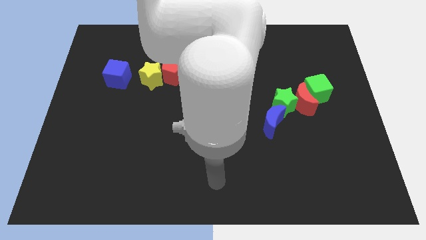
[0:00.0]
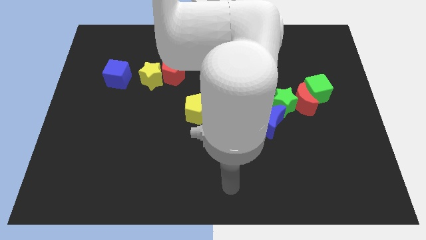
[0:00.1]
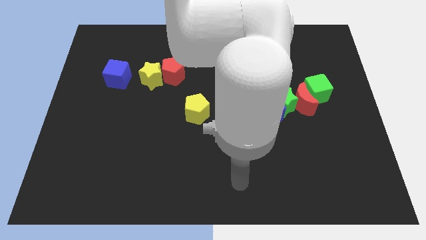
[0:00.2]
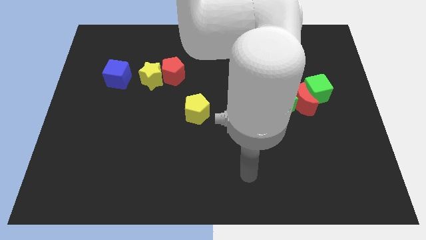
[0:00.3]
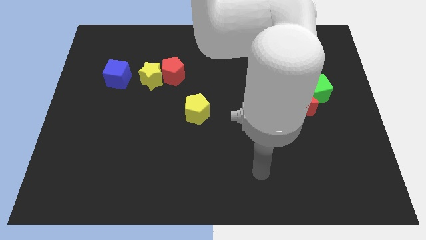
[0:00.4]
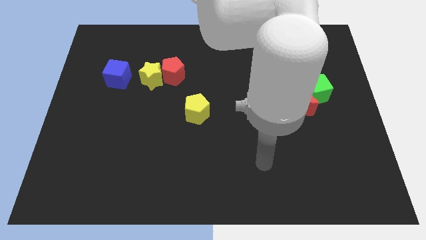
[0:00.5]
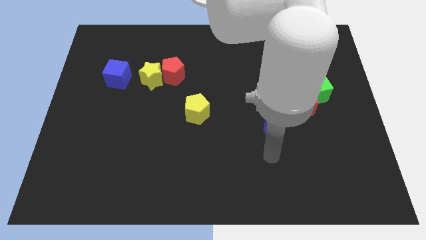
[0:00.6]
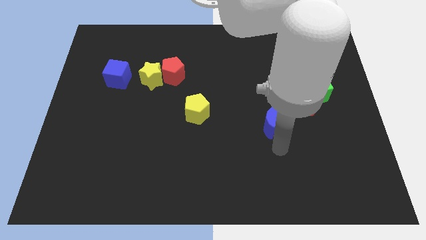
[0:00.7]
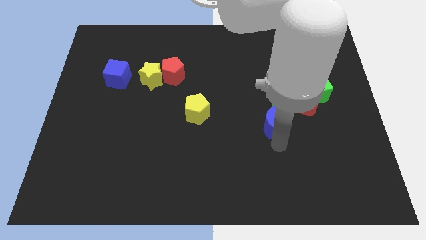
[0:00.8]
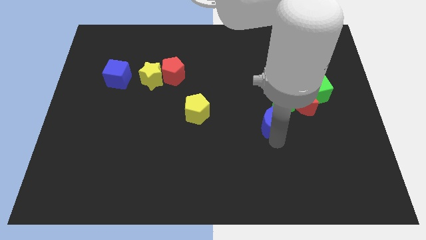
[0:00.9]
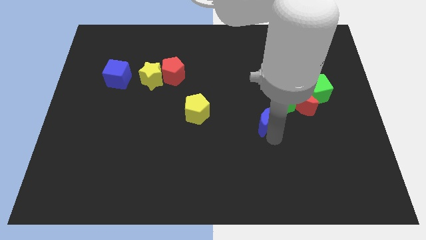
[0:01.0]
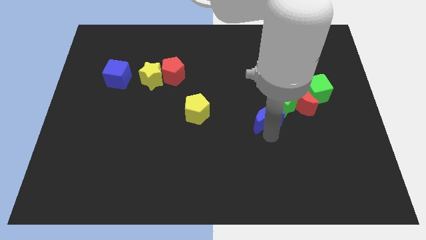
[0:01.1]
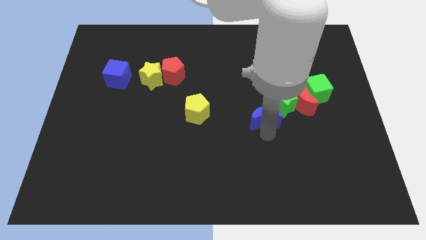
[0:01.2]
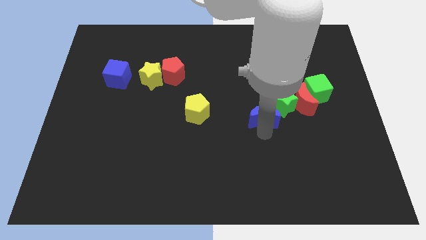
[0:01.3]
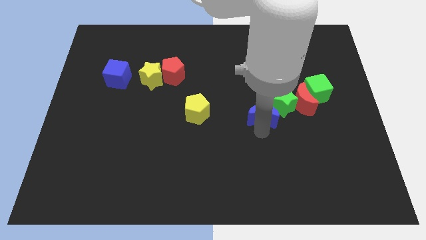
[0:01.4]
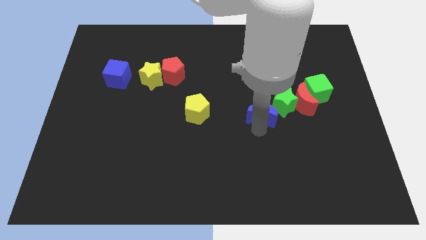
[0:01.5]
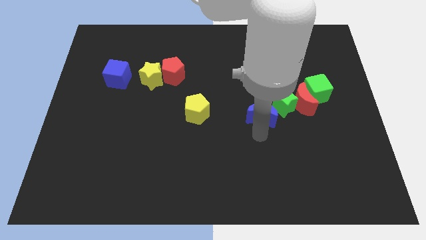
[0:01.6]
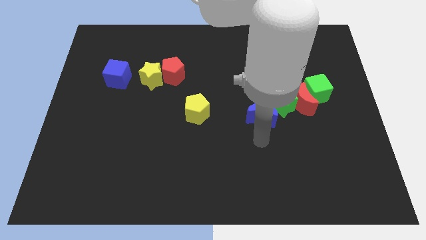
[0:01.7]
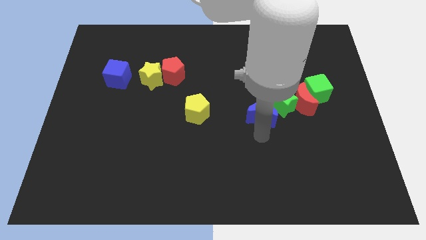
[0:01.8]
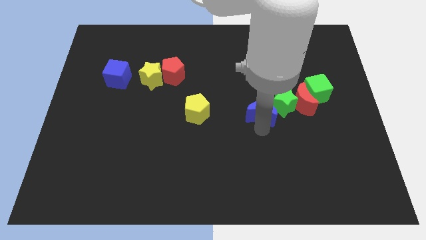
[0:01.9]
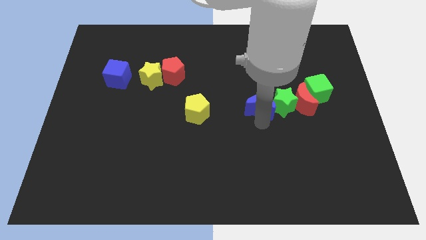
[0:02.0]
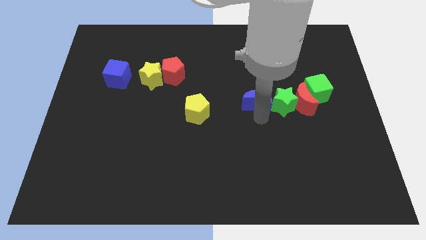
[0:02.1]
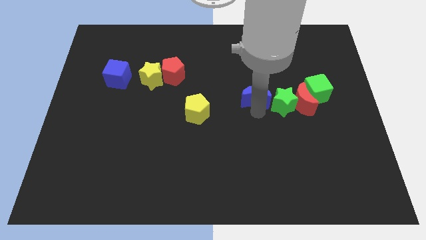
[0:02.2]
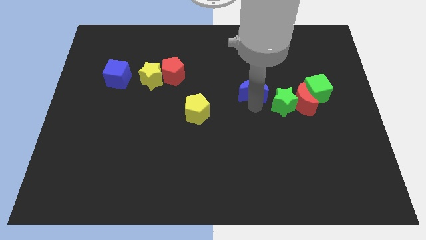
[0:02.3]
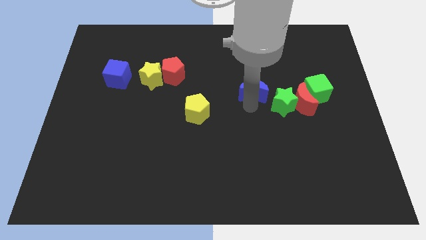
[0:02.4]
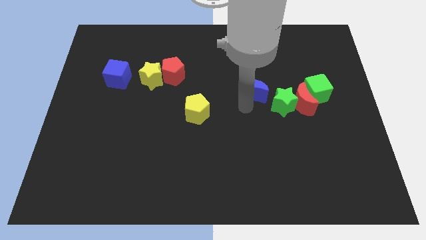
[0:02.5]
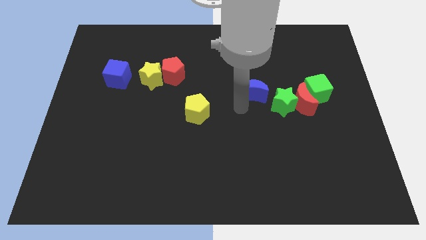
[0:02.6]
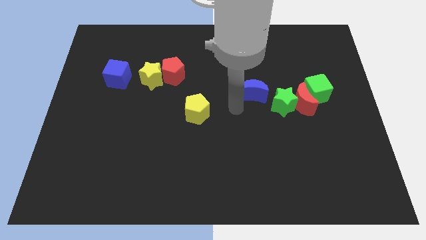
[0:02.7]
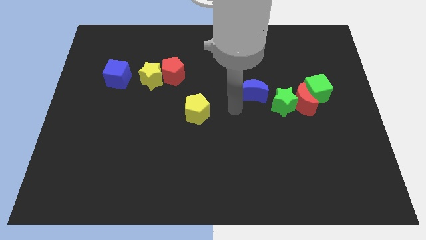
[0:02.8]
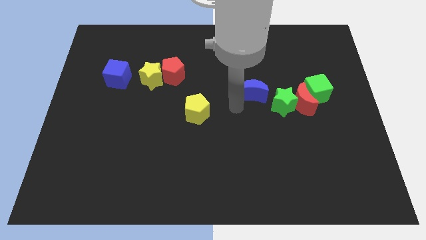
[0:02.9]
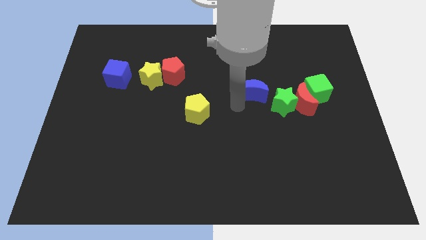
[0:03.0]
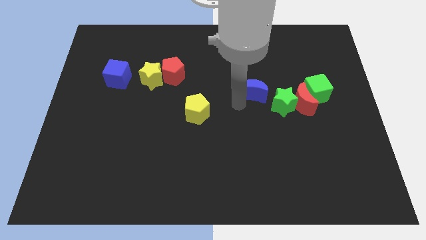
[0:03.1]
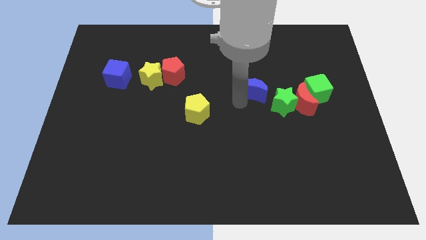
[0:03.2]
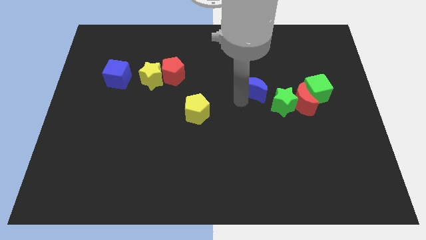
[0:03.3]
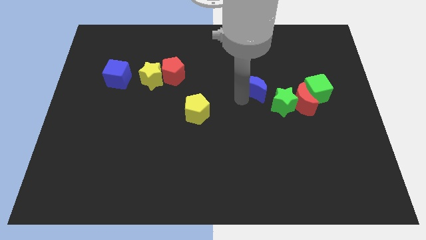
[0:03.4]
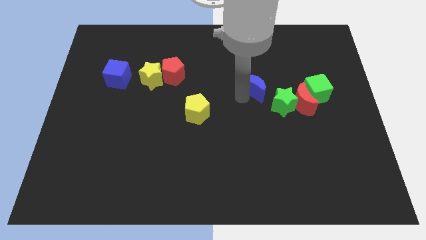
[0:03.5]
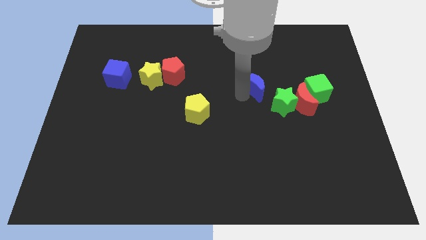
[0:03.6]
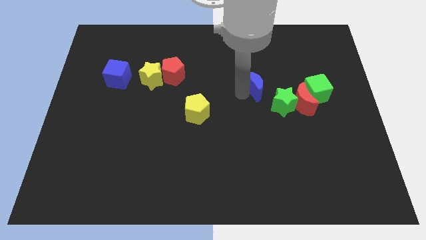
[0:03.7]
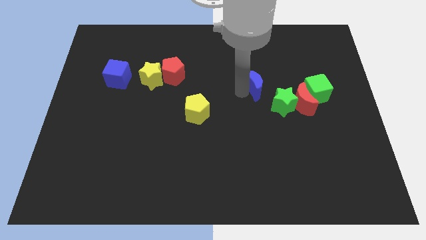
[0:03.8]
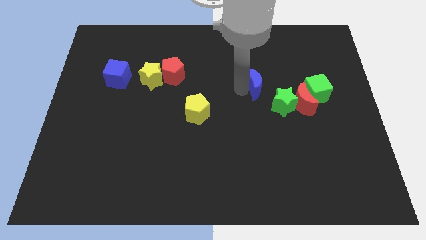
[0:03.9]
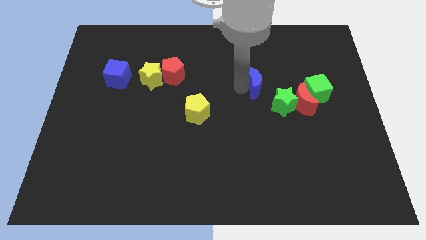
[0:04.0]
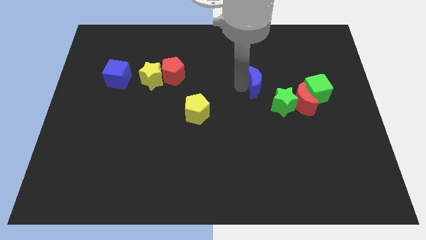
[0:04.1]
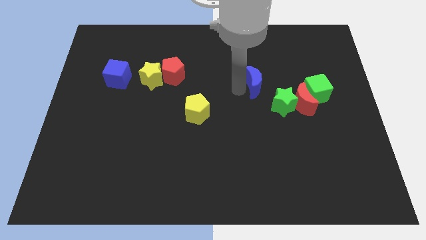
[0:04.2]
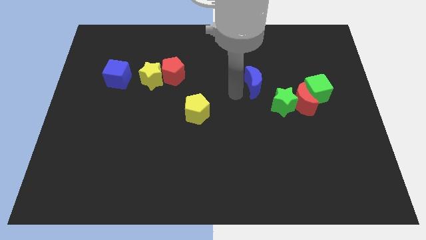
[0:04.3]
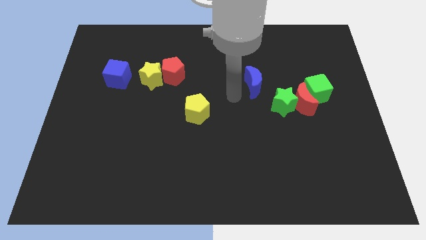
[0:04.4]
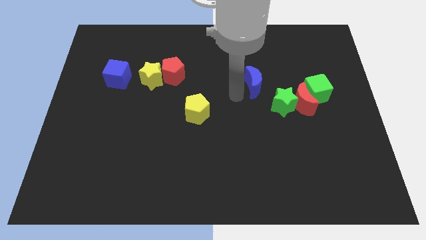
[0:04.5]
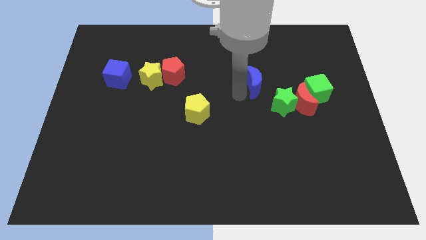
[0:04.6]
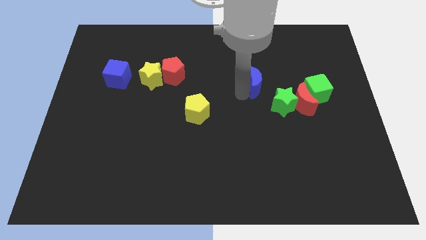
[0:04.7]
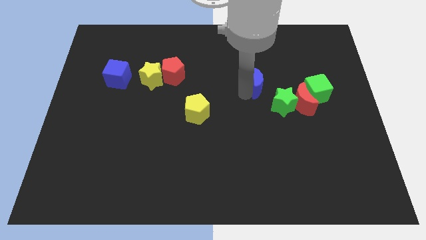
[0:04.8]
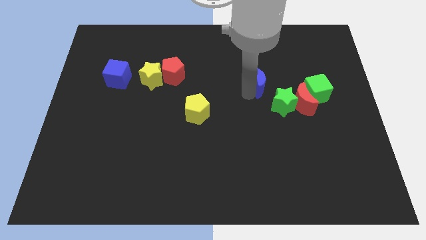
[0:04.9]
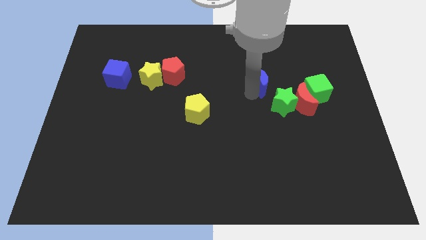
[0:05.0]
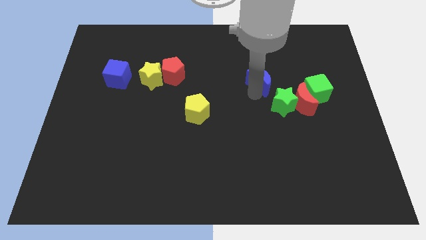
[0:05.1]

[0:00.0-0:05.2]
move the blue moon to the top of the green star

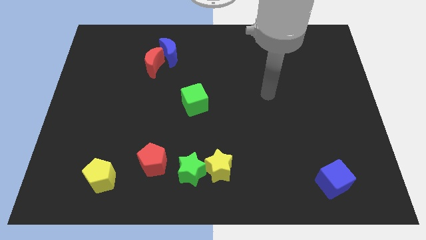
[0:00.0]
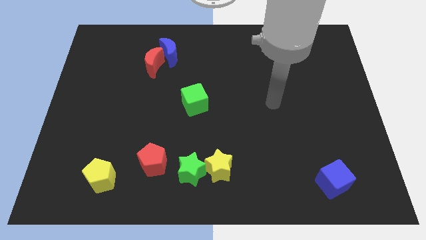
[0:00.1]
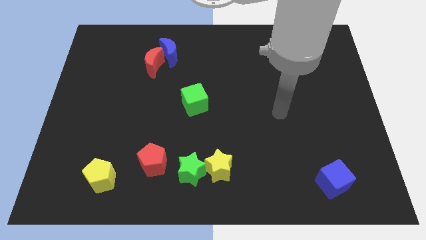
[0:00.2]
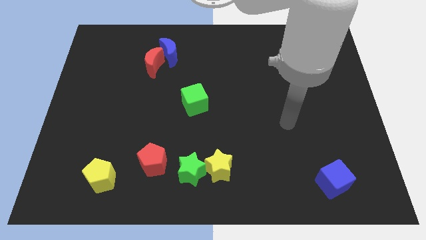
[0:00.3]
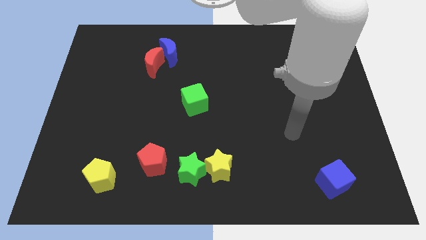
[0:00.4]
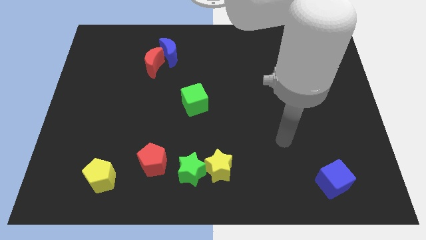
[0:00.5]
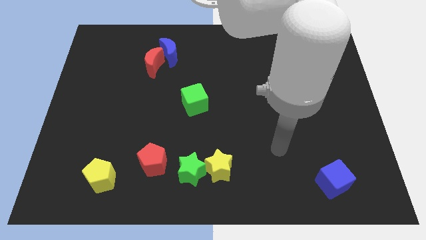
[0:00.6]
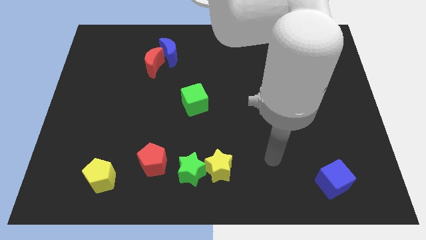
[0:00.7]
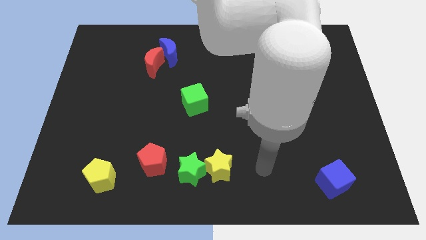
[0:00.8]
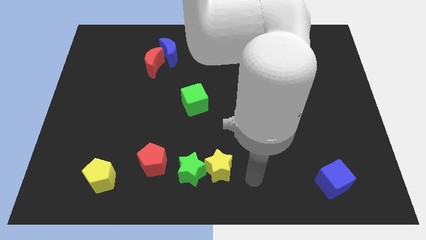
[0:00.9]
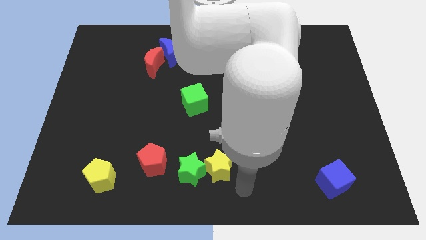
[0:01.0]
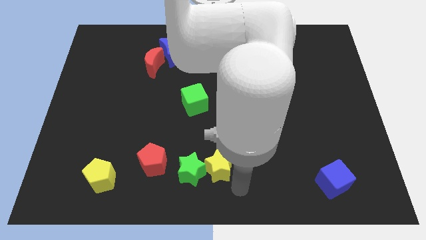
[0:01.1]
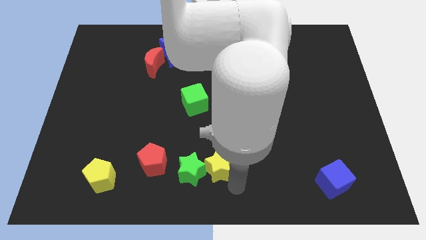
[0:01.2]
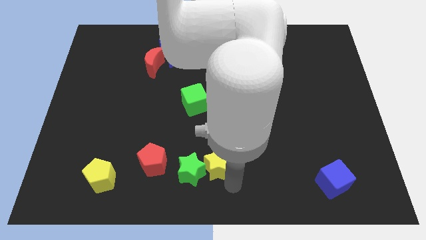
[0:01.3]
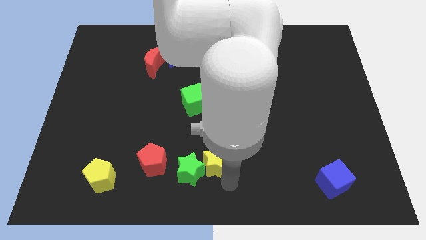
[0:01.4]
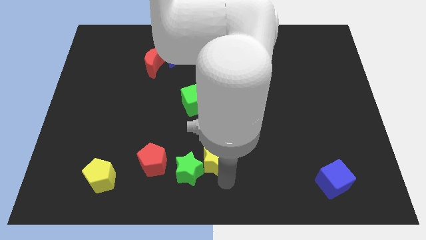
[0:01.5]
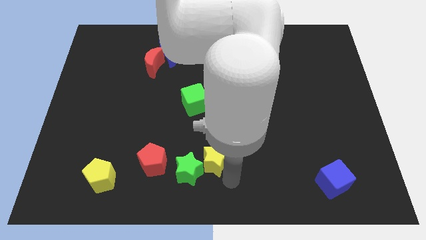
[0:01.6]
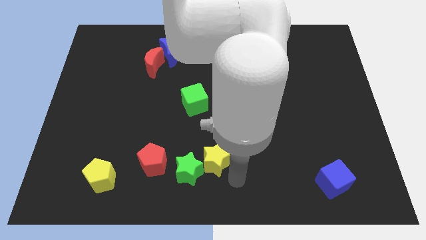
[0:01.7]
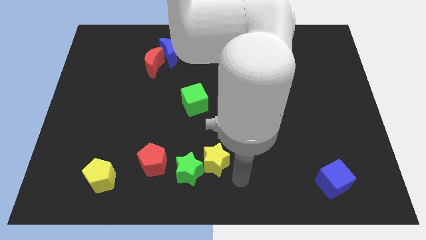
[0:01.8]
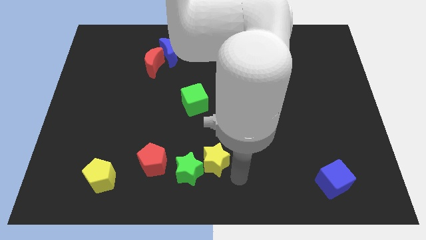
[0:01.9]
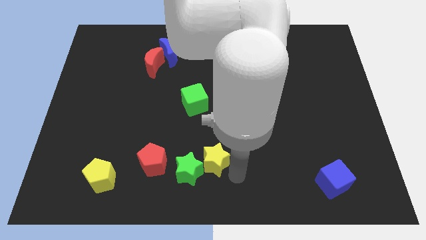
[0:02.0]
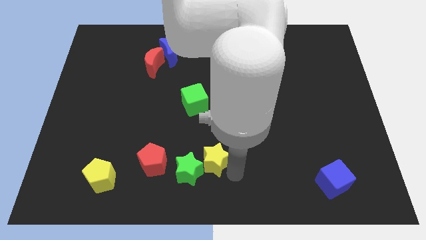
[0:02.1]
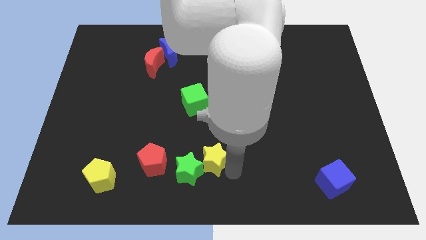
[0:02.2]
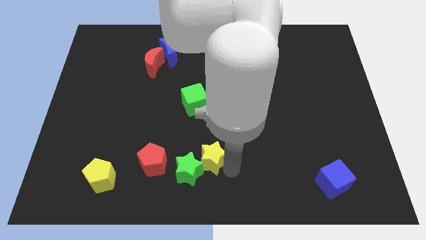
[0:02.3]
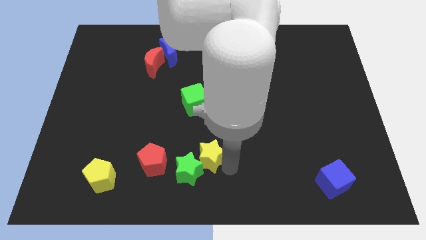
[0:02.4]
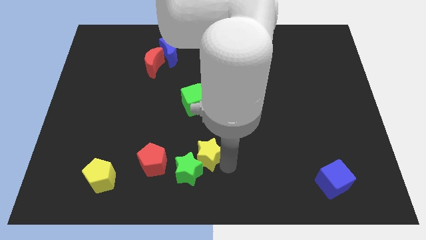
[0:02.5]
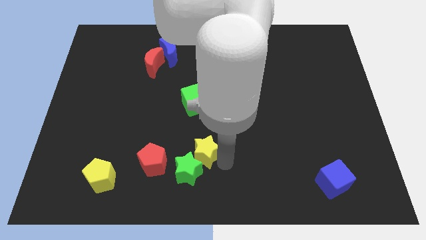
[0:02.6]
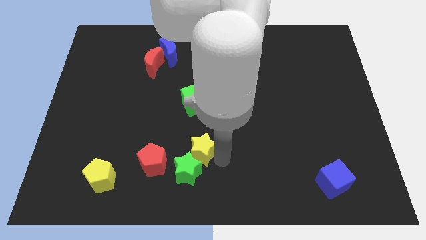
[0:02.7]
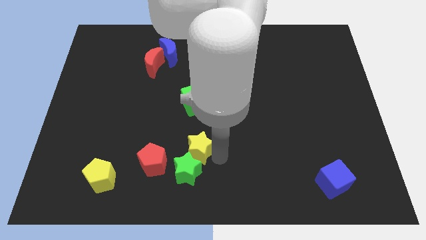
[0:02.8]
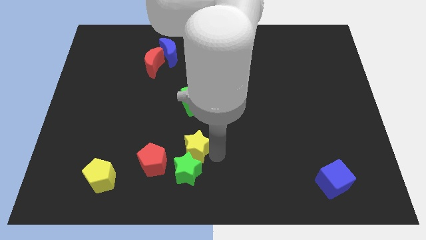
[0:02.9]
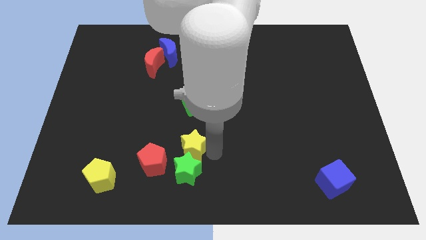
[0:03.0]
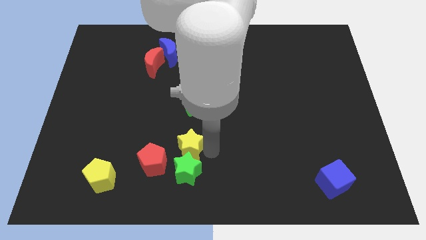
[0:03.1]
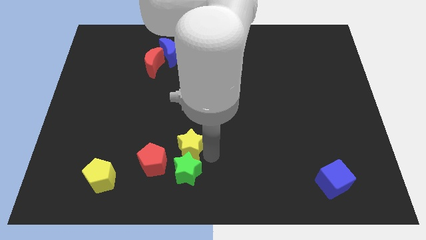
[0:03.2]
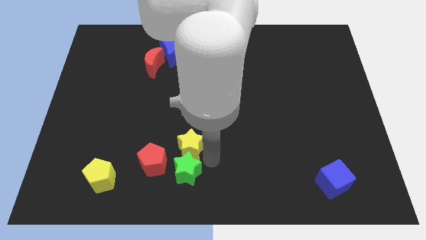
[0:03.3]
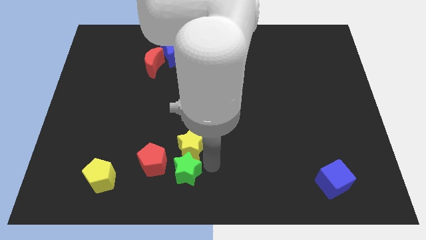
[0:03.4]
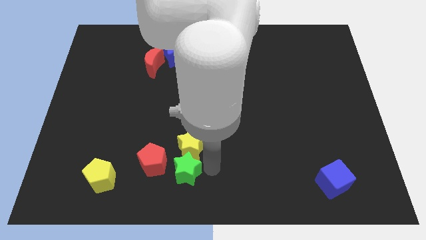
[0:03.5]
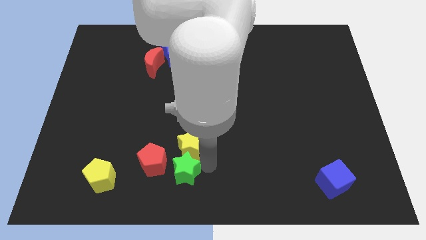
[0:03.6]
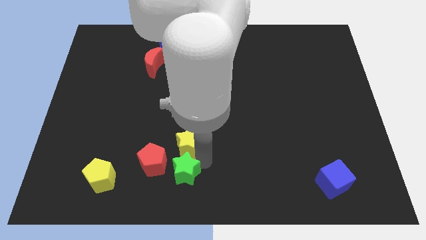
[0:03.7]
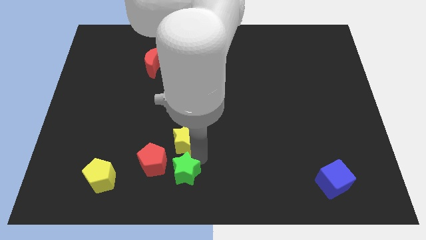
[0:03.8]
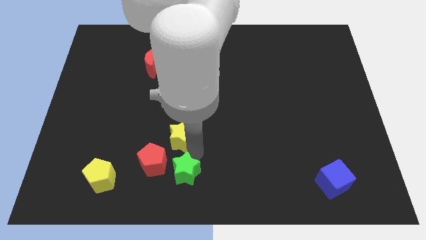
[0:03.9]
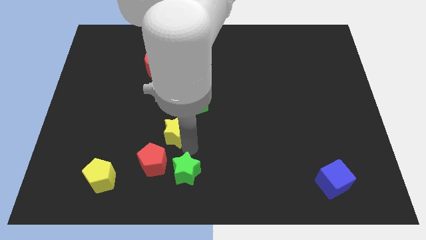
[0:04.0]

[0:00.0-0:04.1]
push the yellow star to the top side of the red pentagon
